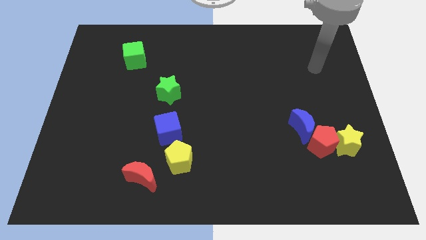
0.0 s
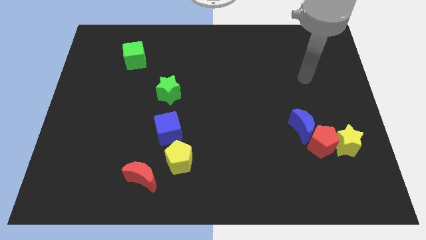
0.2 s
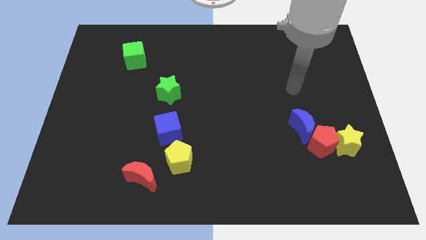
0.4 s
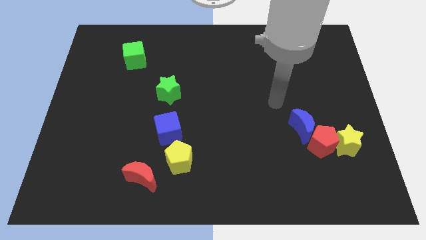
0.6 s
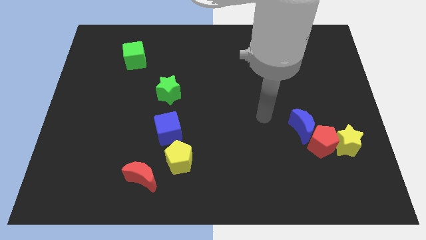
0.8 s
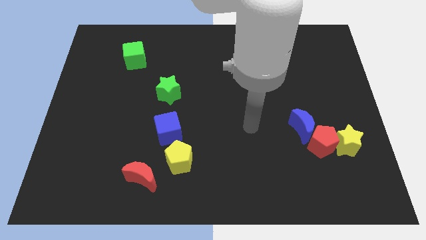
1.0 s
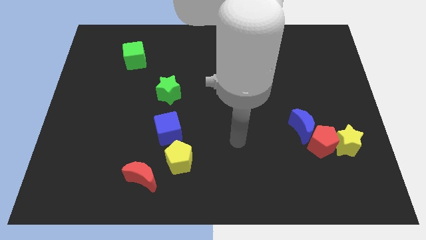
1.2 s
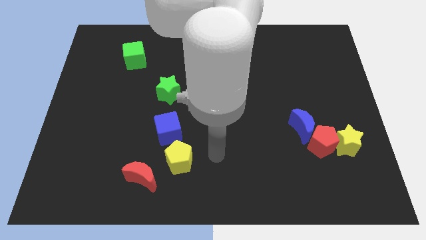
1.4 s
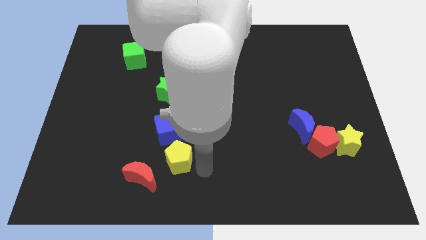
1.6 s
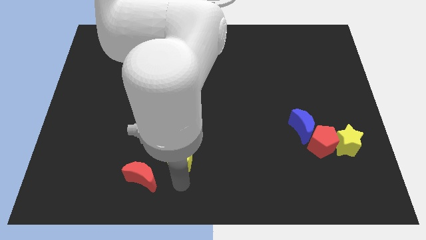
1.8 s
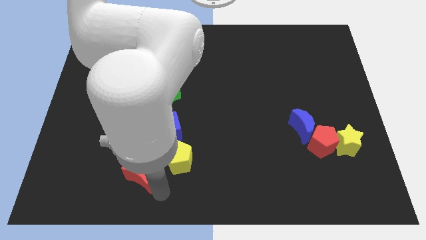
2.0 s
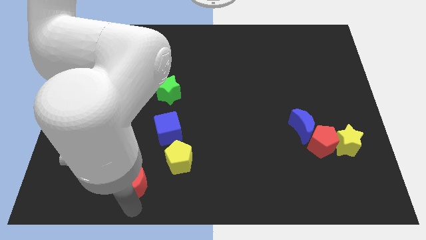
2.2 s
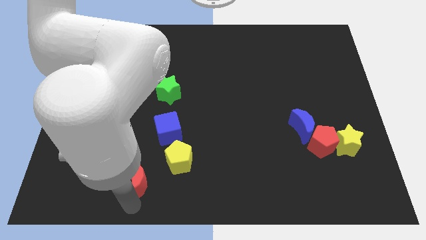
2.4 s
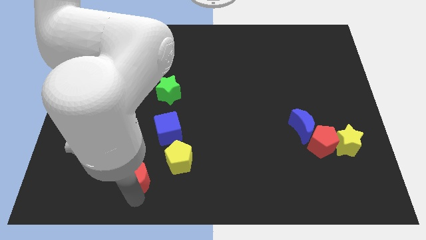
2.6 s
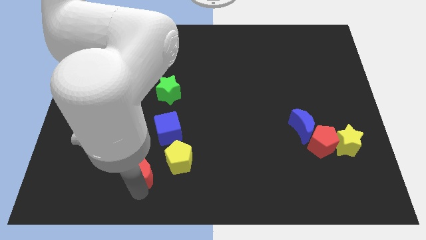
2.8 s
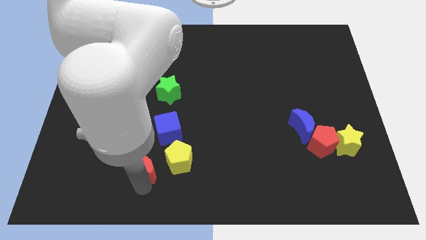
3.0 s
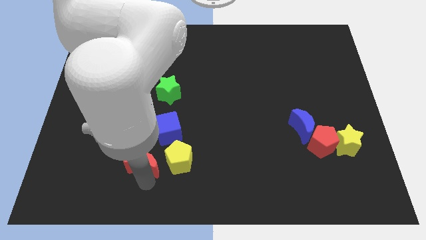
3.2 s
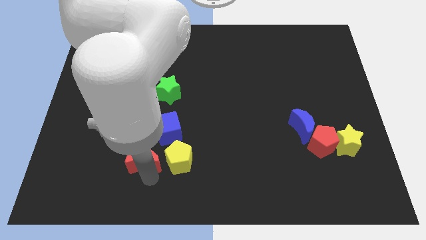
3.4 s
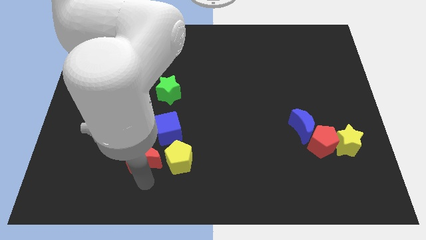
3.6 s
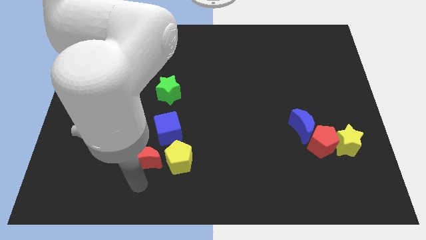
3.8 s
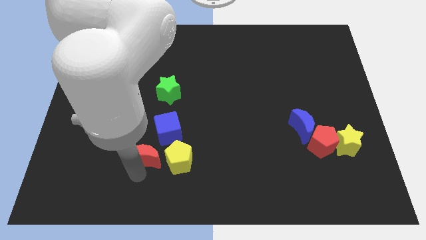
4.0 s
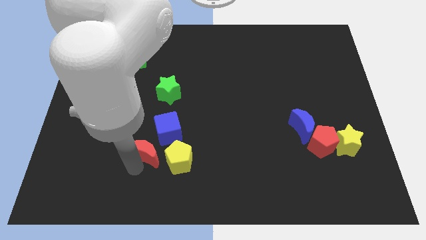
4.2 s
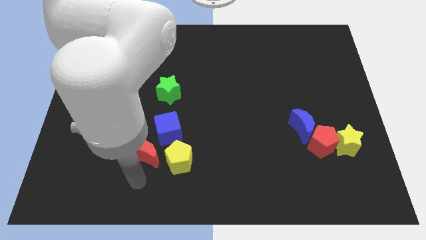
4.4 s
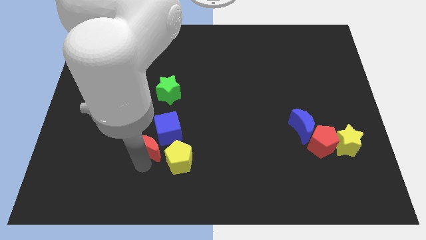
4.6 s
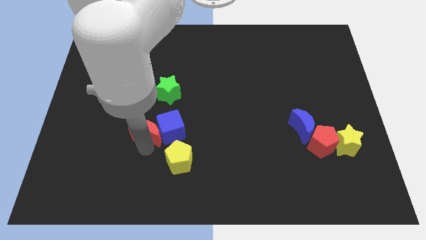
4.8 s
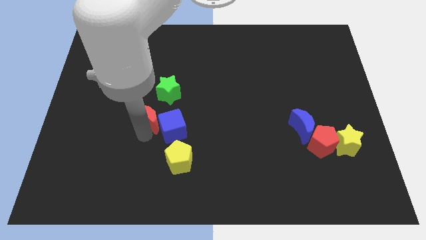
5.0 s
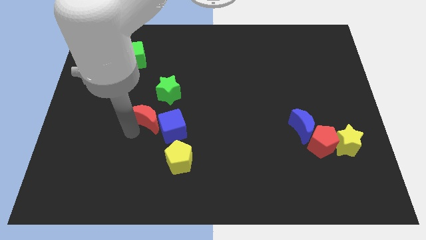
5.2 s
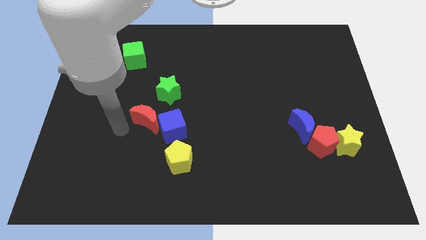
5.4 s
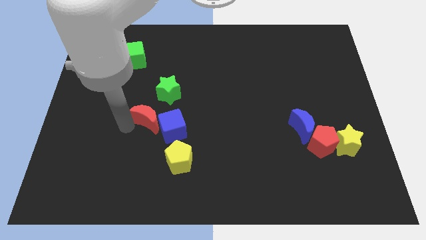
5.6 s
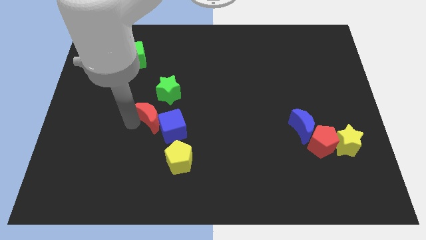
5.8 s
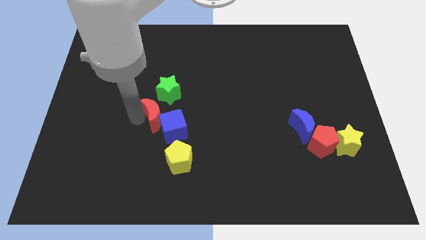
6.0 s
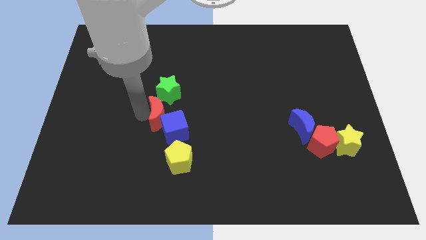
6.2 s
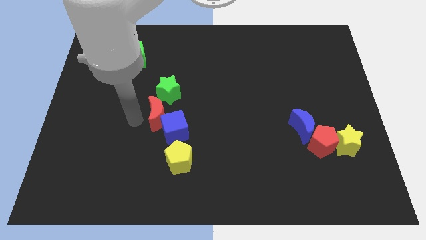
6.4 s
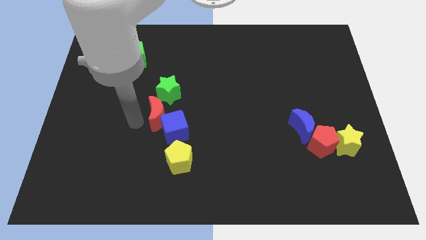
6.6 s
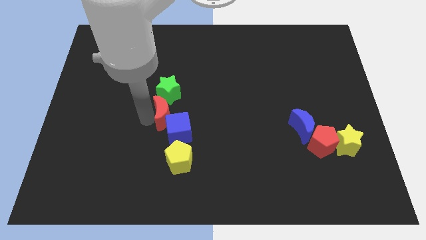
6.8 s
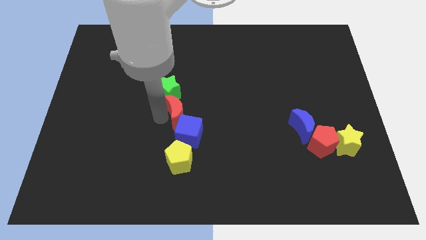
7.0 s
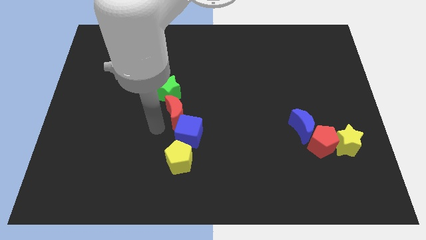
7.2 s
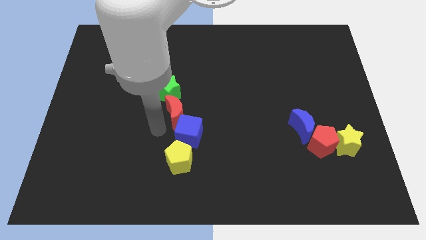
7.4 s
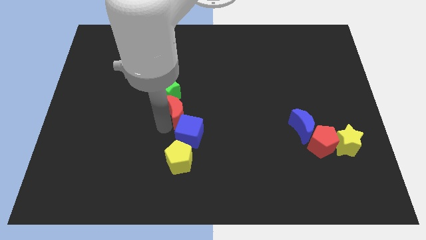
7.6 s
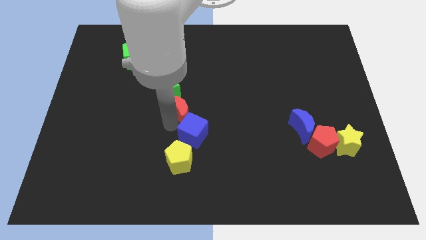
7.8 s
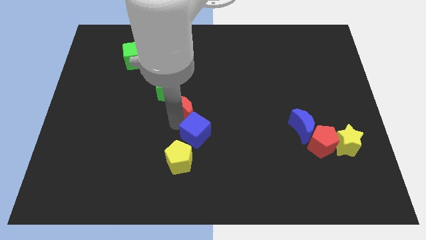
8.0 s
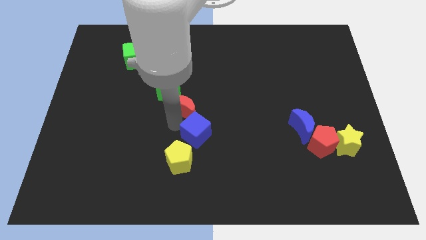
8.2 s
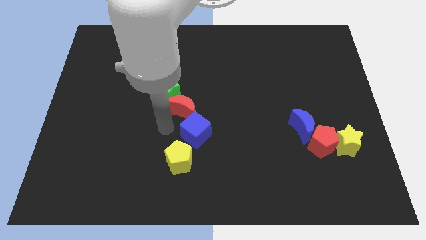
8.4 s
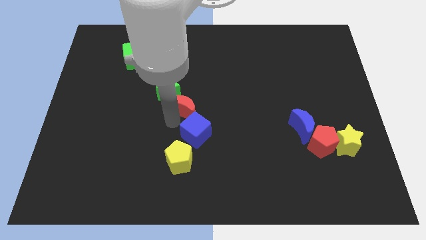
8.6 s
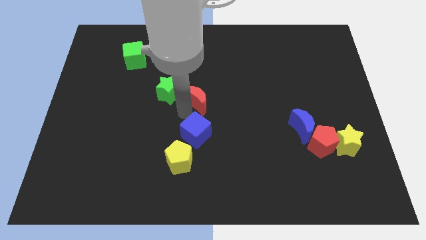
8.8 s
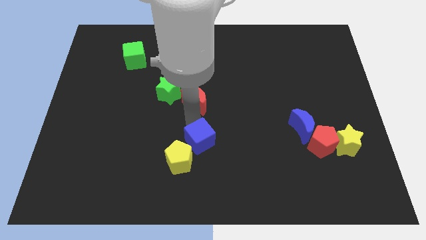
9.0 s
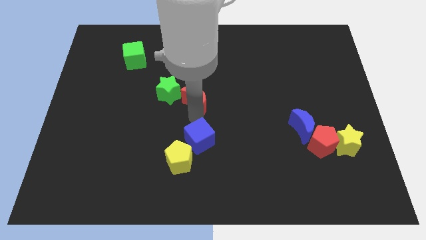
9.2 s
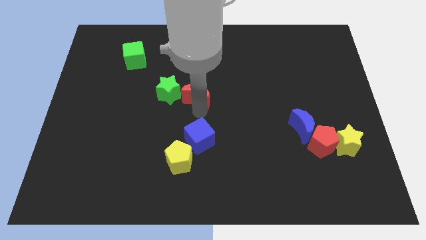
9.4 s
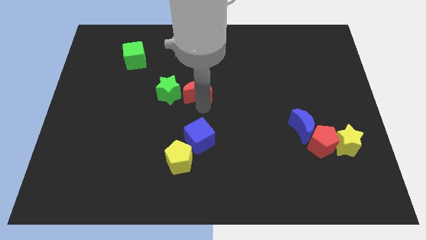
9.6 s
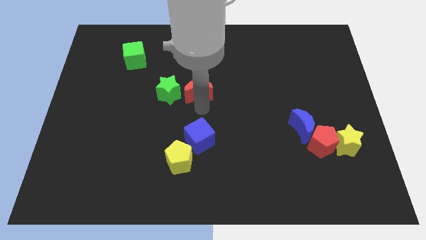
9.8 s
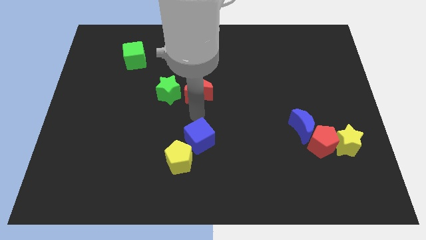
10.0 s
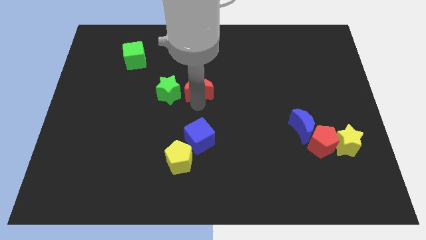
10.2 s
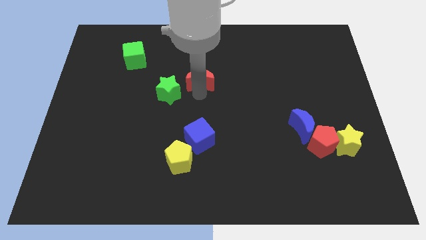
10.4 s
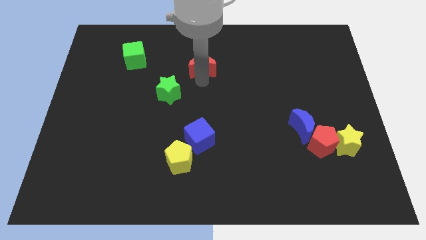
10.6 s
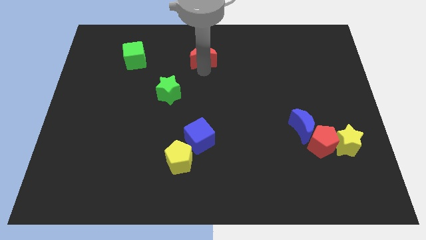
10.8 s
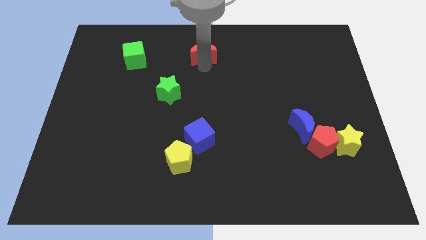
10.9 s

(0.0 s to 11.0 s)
push the red moon to the towards your base

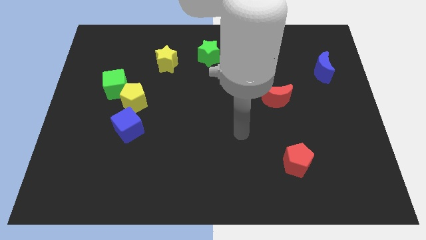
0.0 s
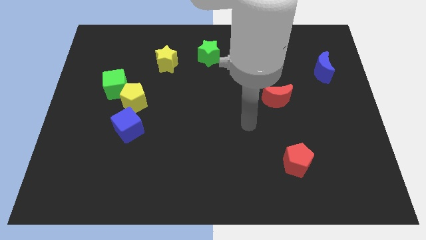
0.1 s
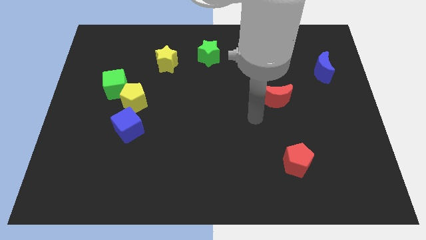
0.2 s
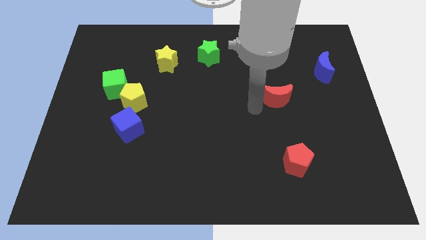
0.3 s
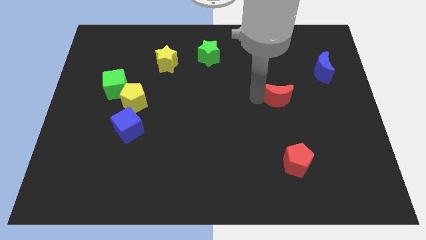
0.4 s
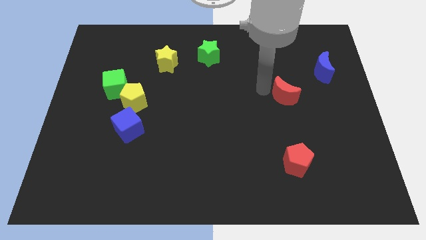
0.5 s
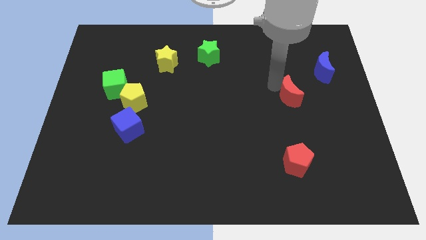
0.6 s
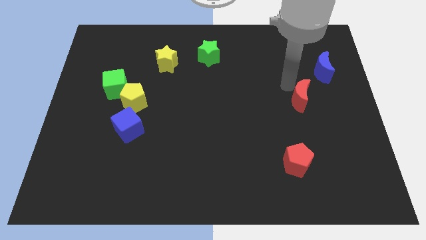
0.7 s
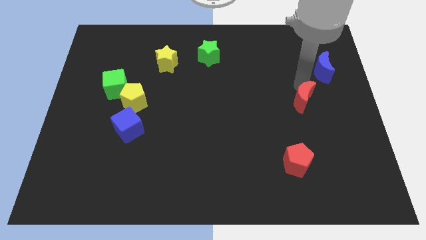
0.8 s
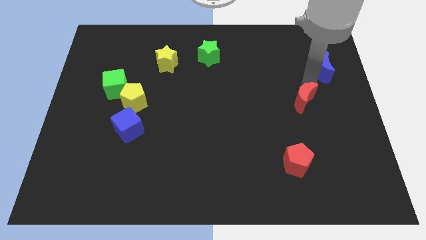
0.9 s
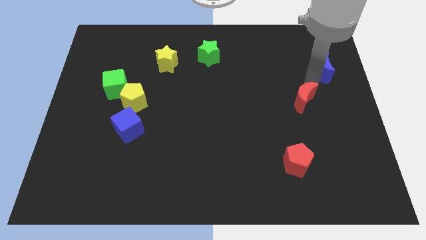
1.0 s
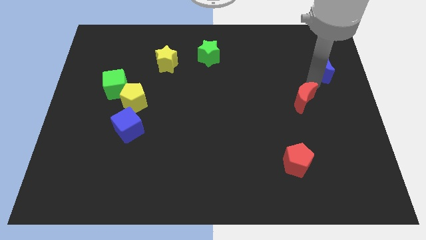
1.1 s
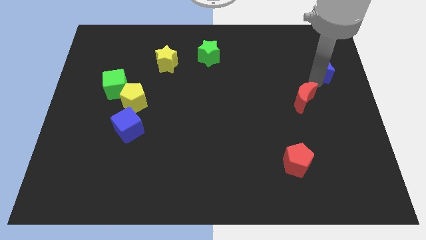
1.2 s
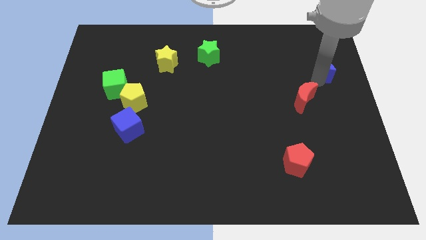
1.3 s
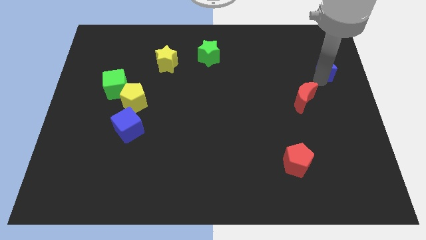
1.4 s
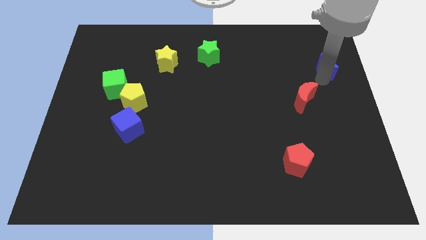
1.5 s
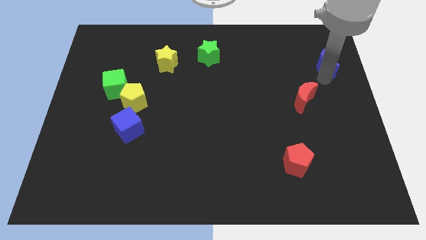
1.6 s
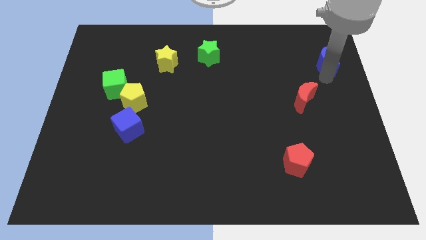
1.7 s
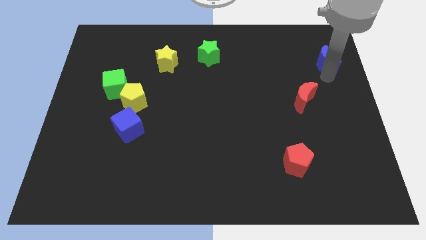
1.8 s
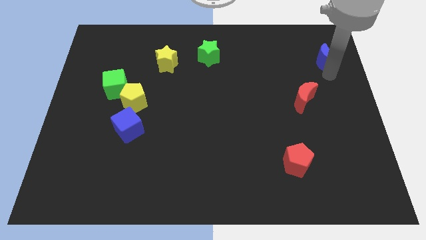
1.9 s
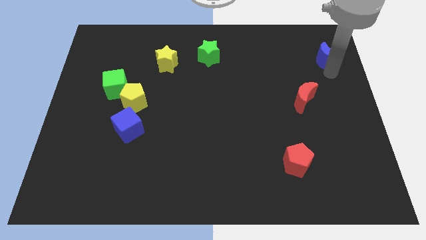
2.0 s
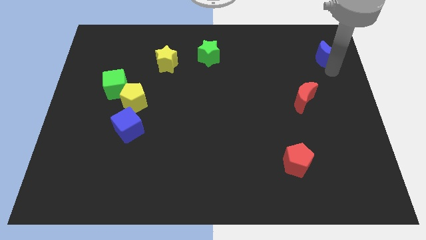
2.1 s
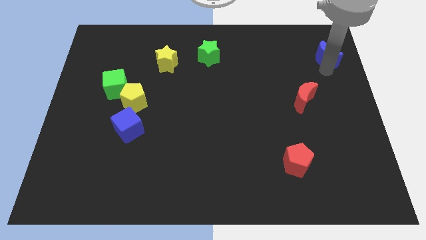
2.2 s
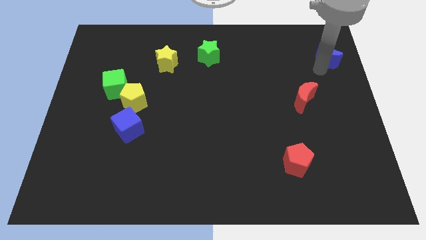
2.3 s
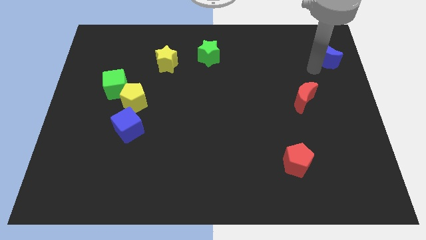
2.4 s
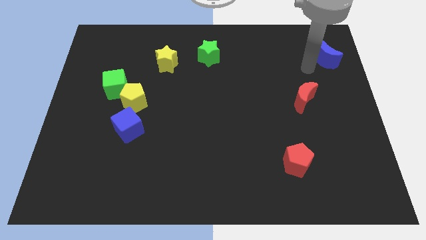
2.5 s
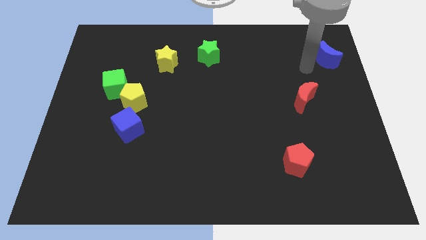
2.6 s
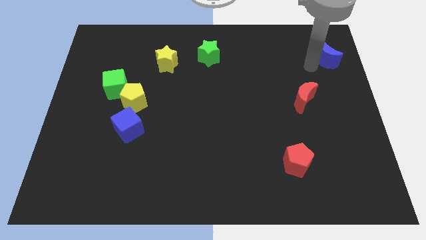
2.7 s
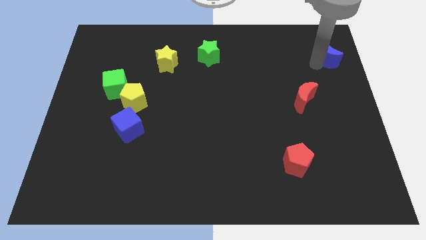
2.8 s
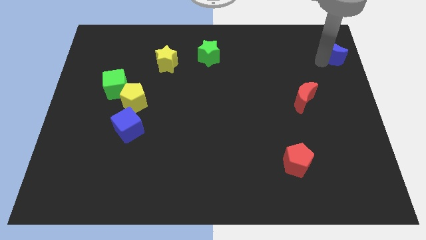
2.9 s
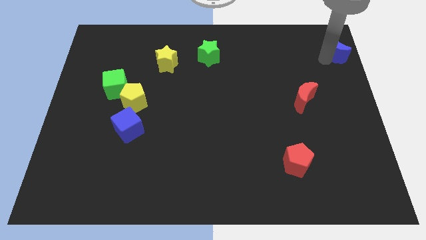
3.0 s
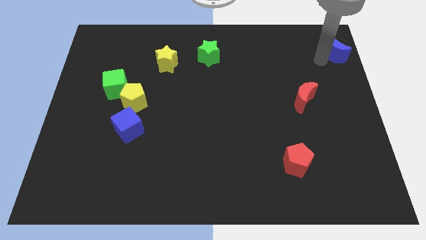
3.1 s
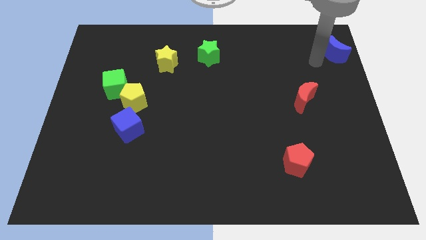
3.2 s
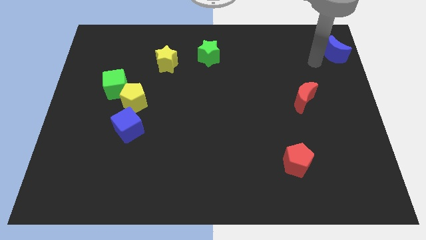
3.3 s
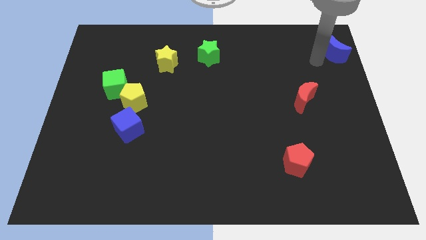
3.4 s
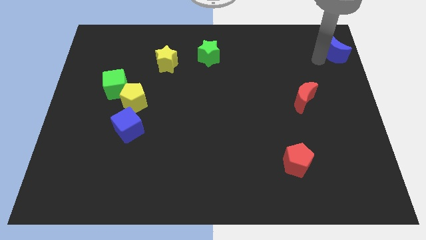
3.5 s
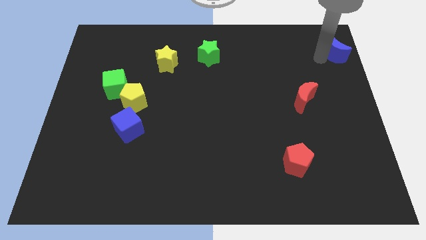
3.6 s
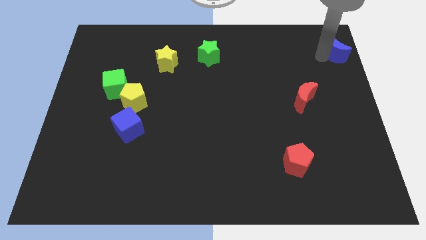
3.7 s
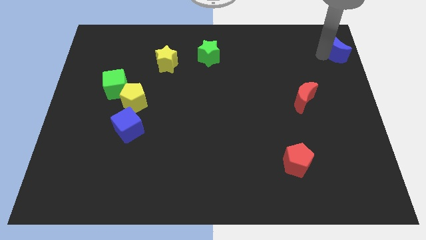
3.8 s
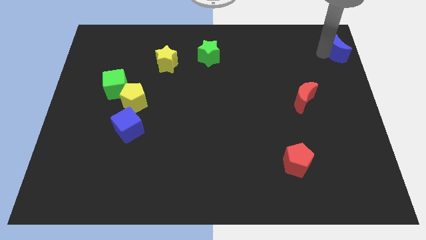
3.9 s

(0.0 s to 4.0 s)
slide the blue moon to the upper right corner
